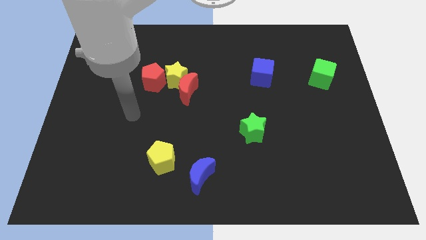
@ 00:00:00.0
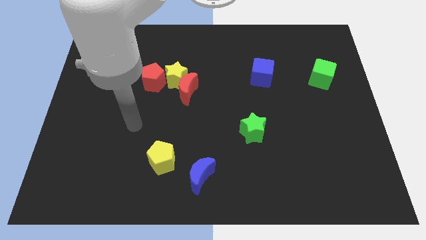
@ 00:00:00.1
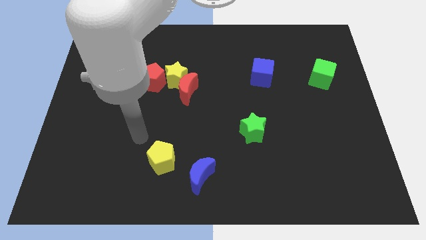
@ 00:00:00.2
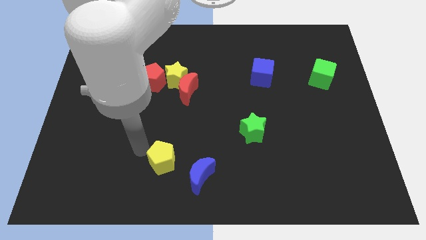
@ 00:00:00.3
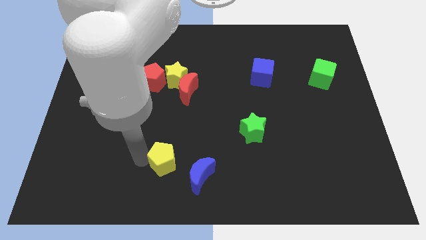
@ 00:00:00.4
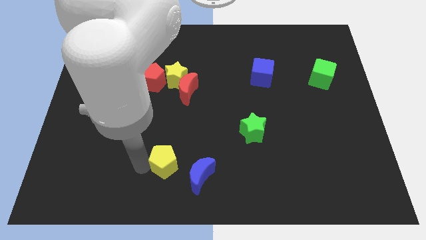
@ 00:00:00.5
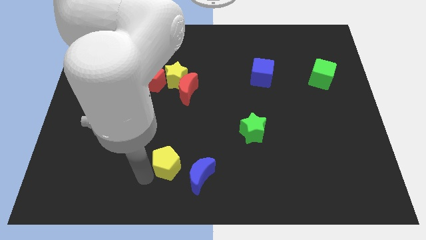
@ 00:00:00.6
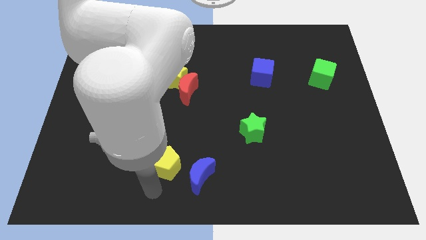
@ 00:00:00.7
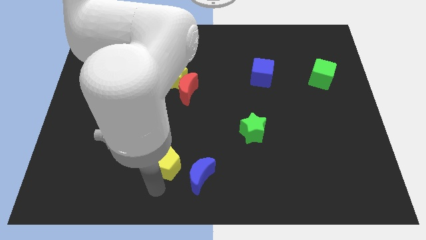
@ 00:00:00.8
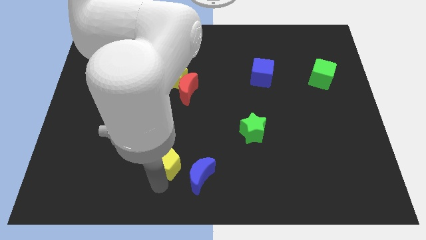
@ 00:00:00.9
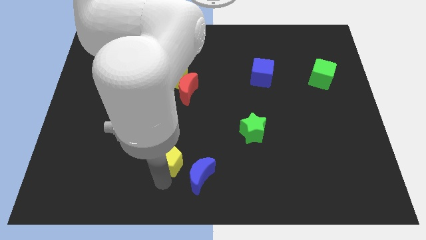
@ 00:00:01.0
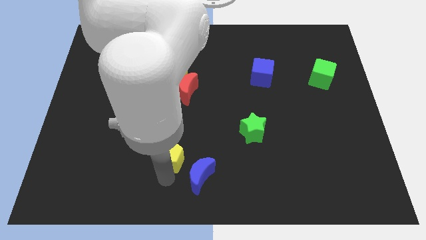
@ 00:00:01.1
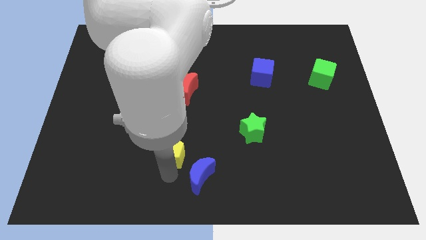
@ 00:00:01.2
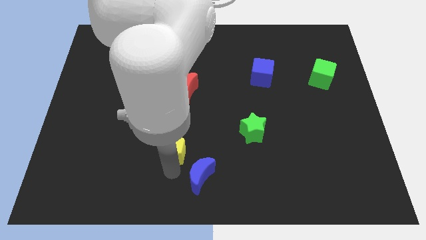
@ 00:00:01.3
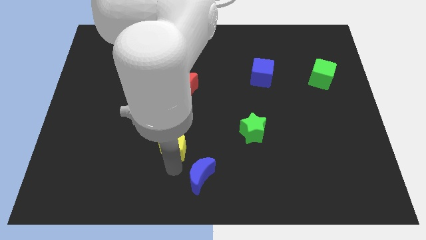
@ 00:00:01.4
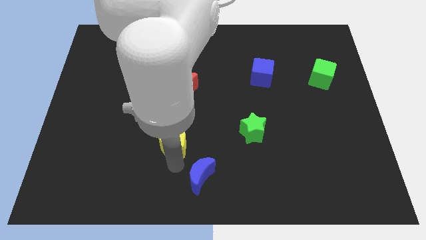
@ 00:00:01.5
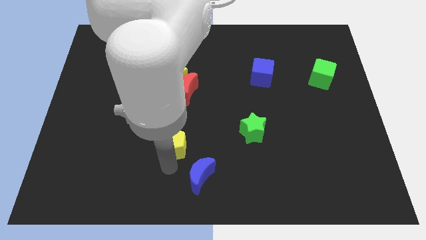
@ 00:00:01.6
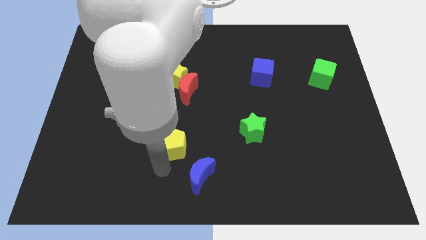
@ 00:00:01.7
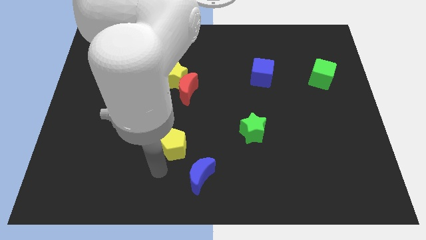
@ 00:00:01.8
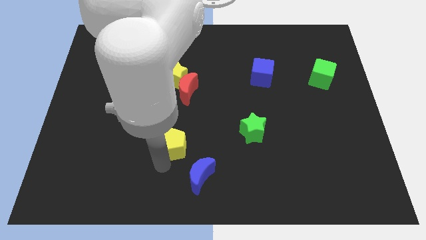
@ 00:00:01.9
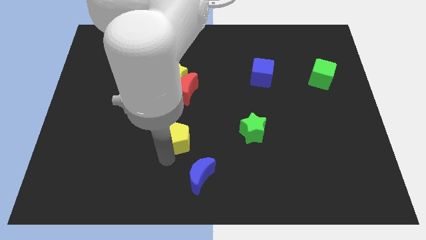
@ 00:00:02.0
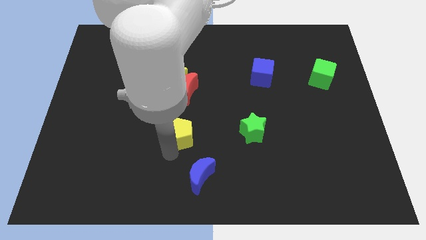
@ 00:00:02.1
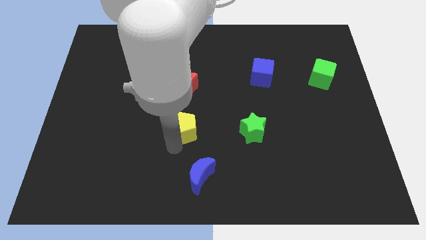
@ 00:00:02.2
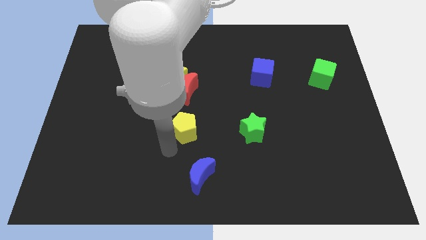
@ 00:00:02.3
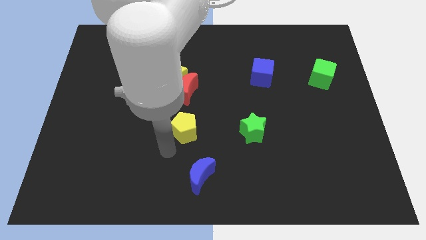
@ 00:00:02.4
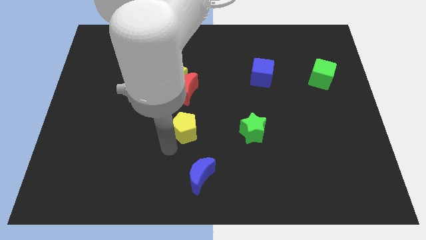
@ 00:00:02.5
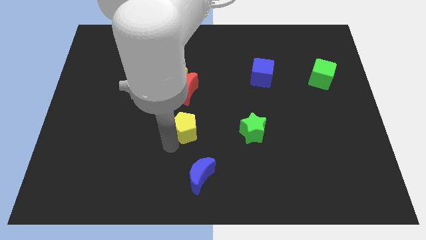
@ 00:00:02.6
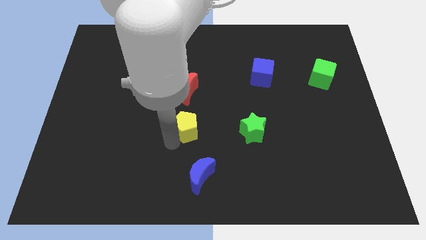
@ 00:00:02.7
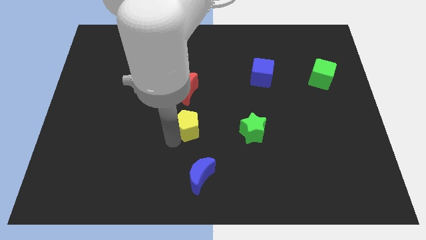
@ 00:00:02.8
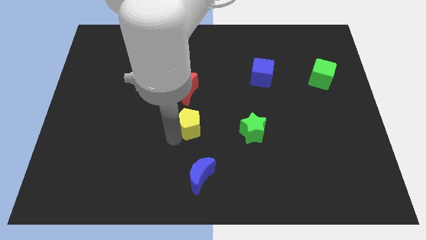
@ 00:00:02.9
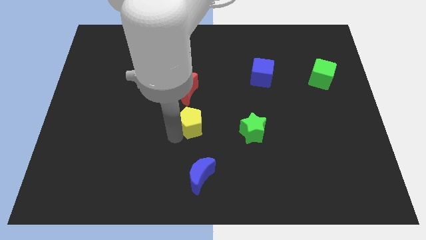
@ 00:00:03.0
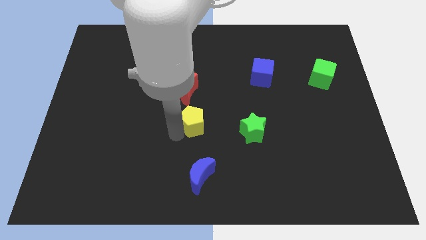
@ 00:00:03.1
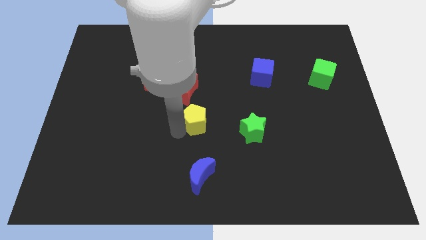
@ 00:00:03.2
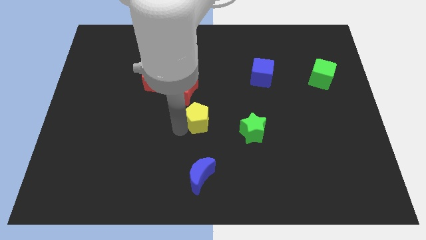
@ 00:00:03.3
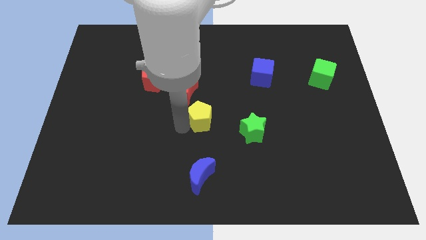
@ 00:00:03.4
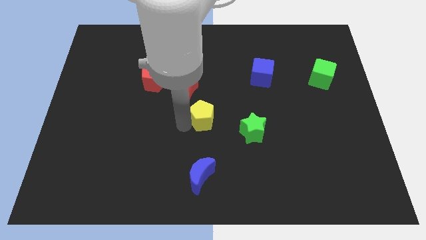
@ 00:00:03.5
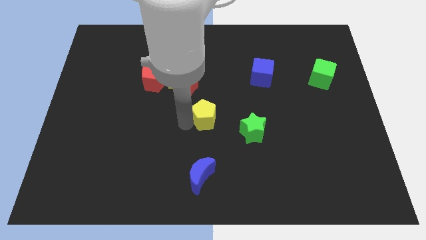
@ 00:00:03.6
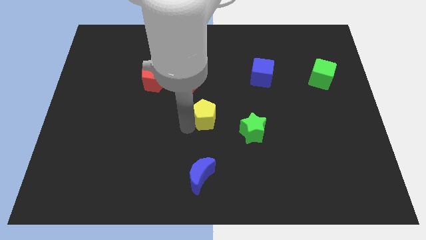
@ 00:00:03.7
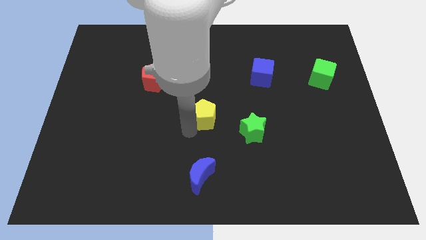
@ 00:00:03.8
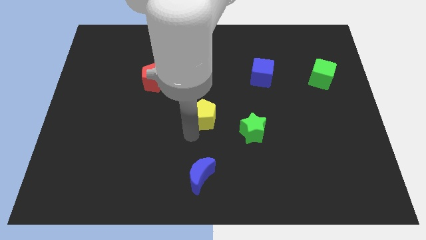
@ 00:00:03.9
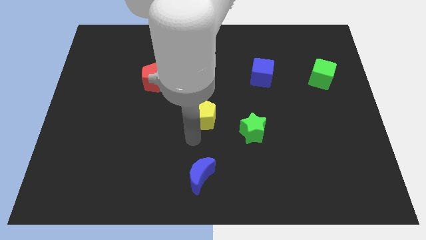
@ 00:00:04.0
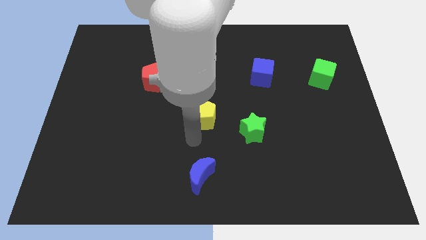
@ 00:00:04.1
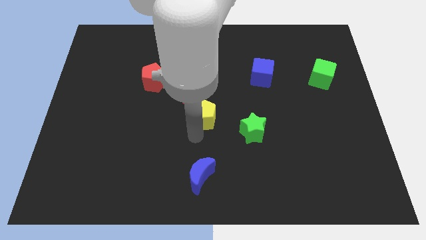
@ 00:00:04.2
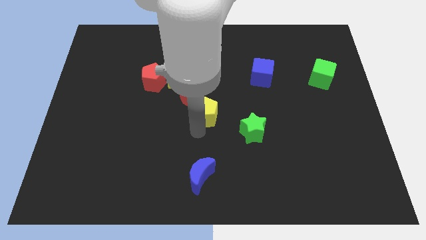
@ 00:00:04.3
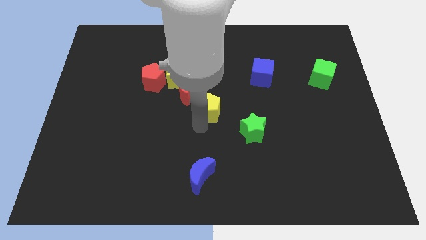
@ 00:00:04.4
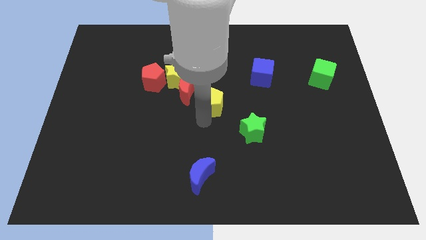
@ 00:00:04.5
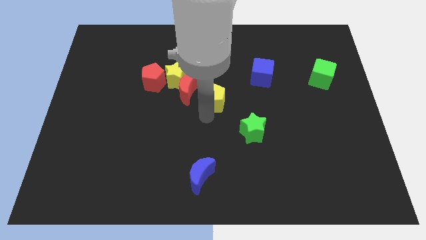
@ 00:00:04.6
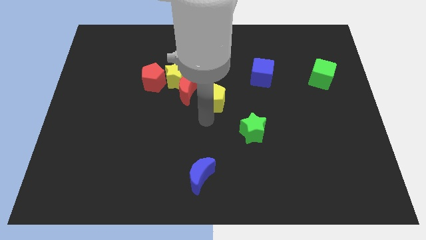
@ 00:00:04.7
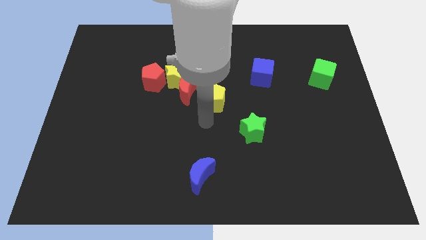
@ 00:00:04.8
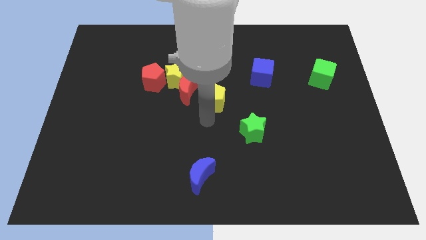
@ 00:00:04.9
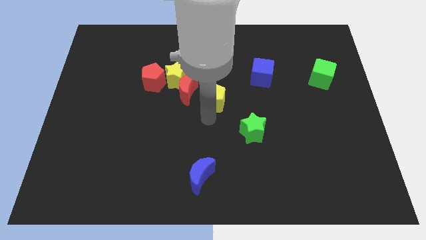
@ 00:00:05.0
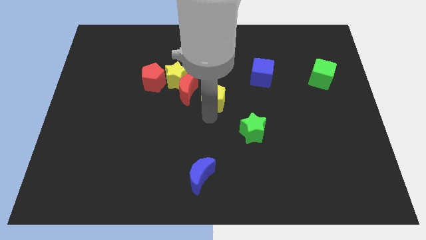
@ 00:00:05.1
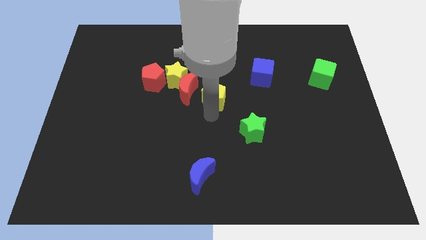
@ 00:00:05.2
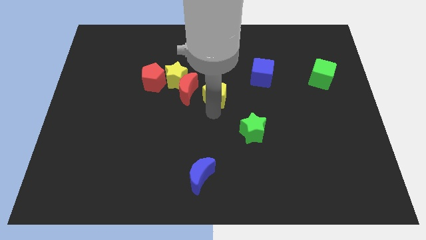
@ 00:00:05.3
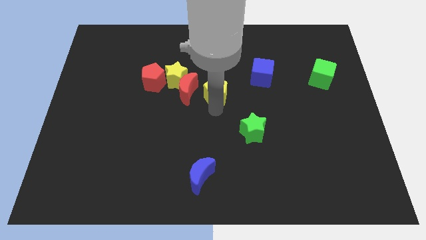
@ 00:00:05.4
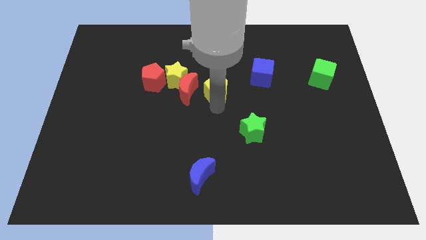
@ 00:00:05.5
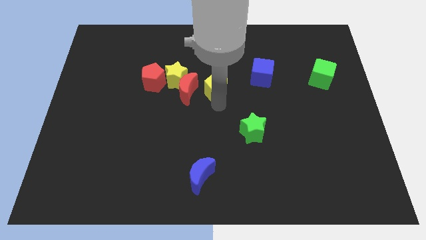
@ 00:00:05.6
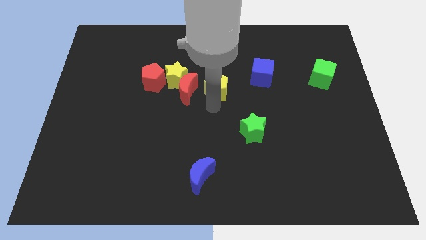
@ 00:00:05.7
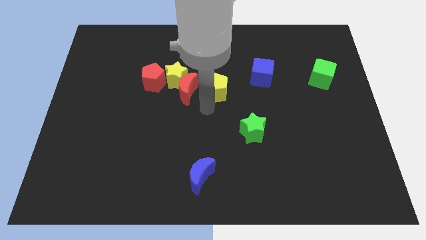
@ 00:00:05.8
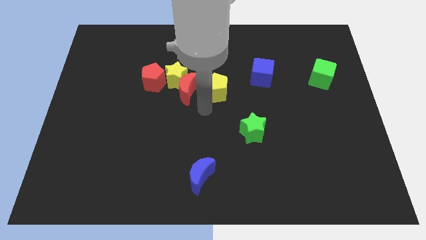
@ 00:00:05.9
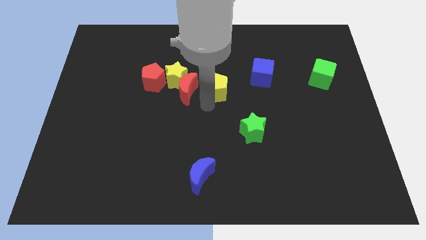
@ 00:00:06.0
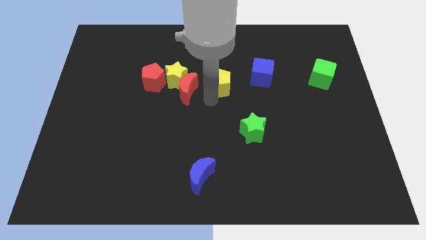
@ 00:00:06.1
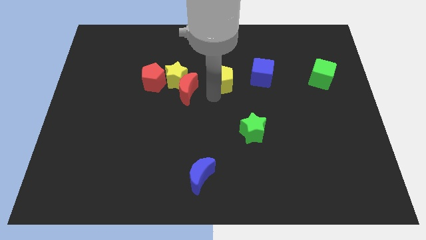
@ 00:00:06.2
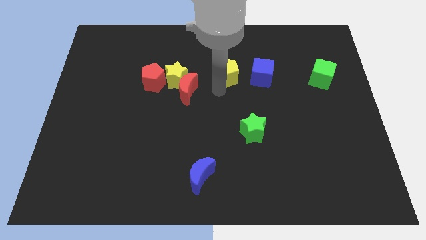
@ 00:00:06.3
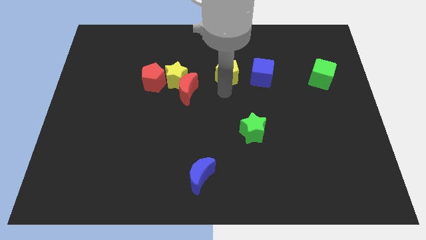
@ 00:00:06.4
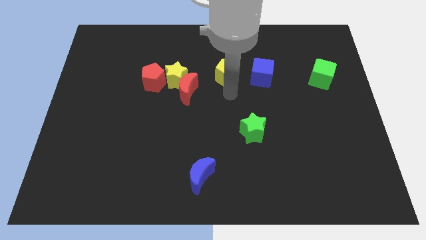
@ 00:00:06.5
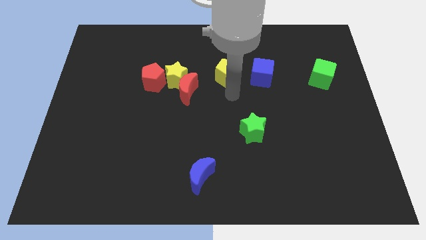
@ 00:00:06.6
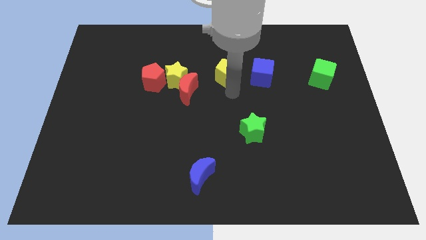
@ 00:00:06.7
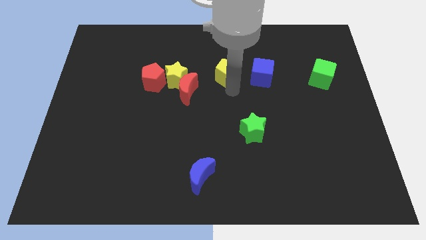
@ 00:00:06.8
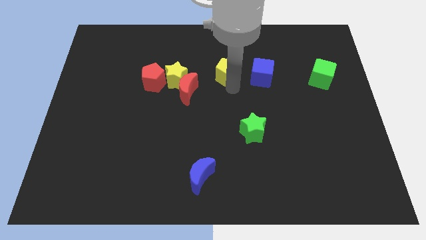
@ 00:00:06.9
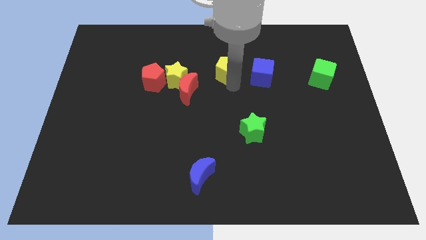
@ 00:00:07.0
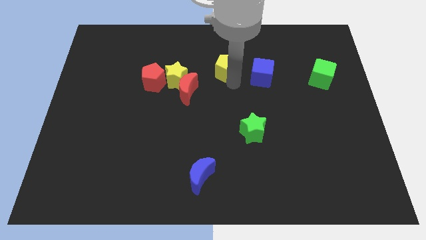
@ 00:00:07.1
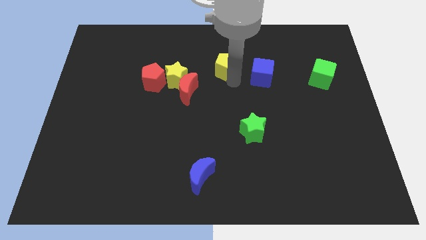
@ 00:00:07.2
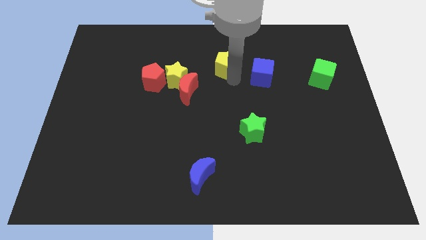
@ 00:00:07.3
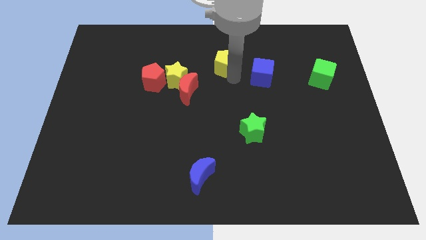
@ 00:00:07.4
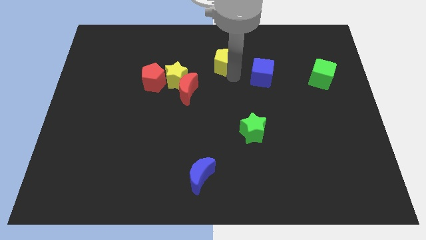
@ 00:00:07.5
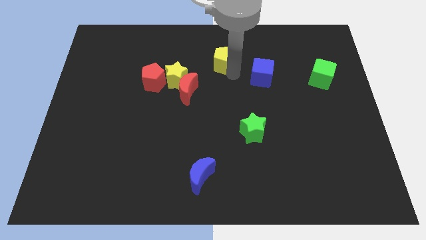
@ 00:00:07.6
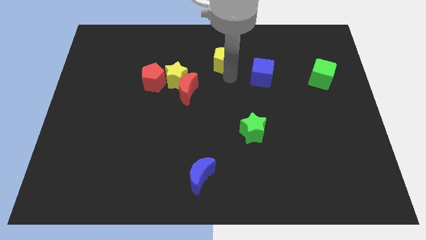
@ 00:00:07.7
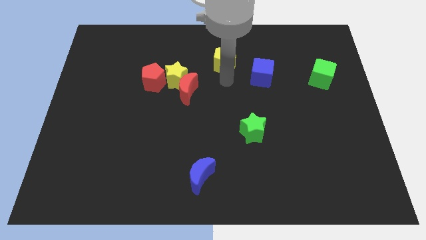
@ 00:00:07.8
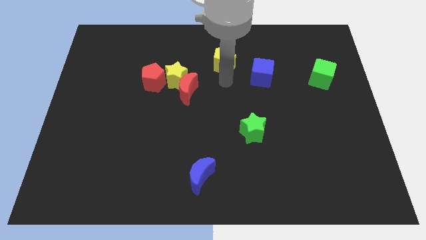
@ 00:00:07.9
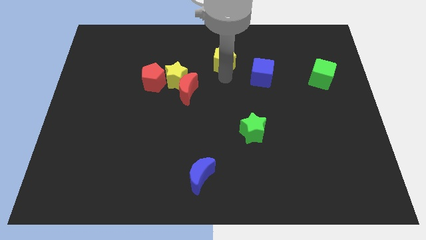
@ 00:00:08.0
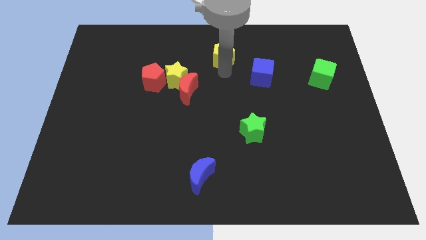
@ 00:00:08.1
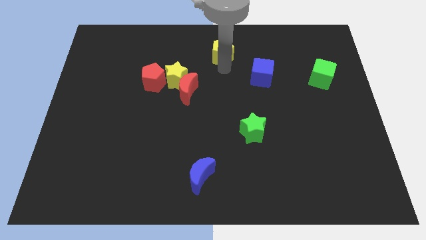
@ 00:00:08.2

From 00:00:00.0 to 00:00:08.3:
put the yellow pentagon to the top side
